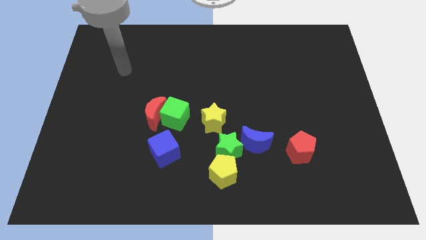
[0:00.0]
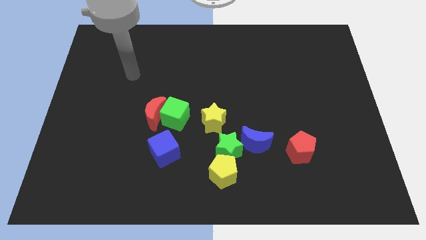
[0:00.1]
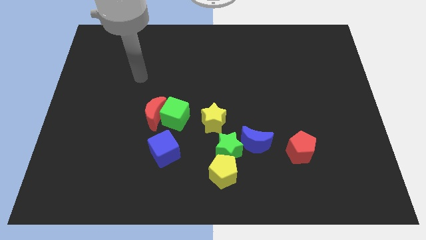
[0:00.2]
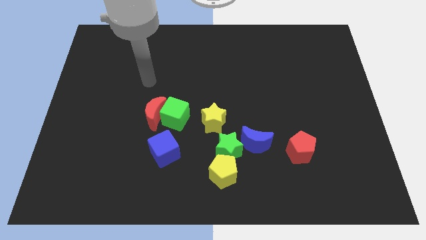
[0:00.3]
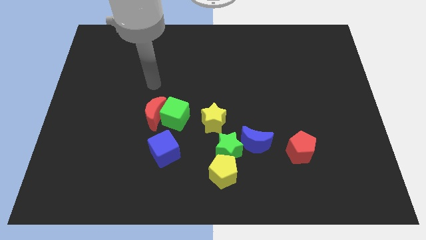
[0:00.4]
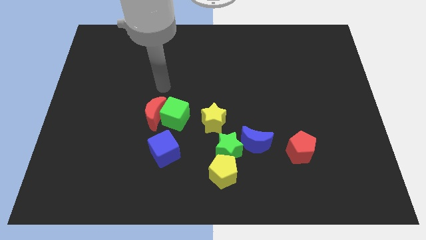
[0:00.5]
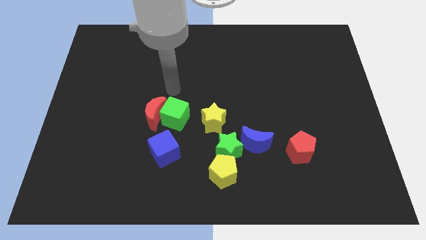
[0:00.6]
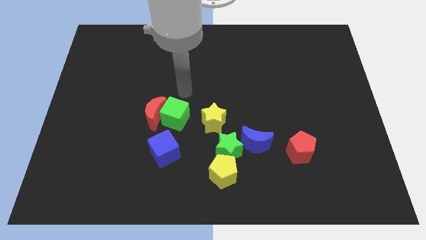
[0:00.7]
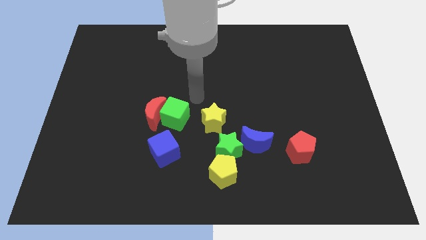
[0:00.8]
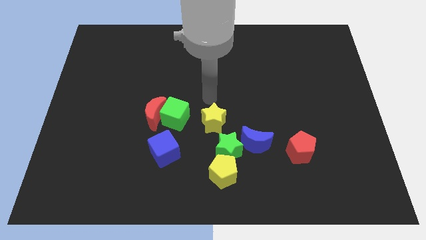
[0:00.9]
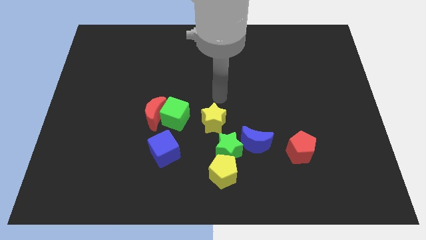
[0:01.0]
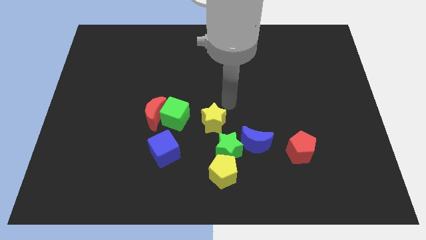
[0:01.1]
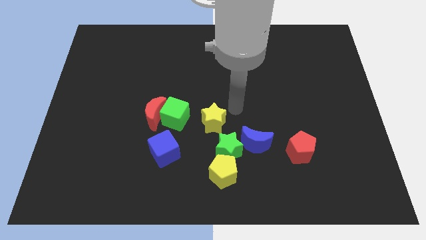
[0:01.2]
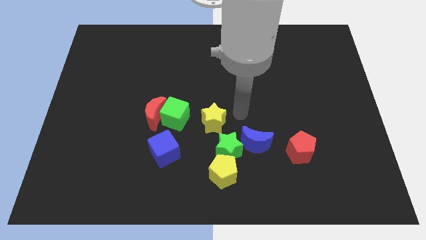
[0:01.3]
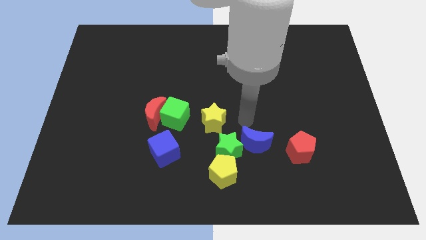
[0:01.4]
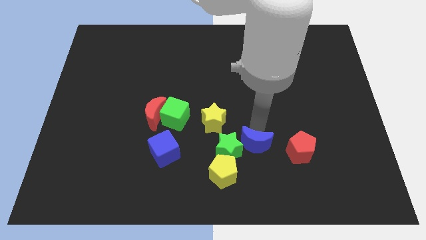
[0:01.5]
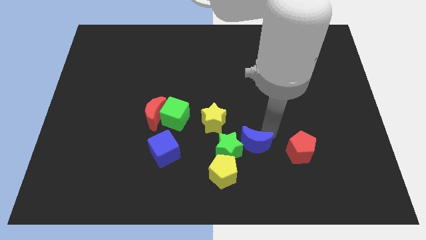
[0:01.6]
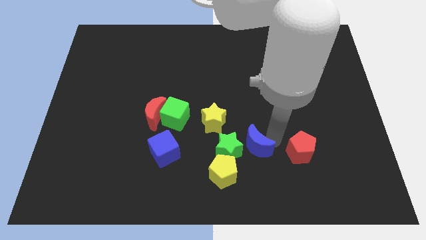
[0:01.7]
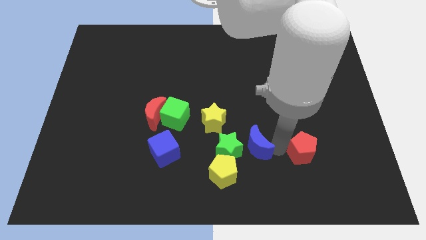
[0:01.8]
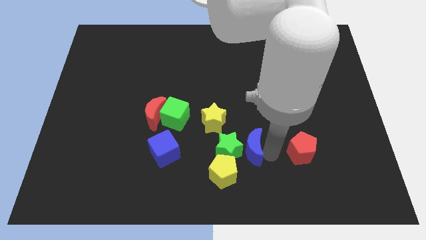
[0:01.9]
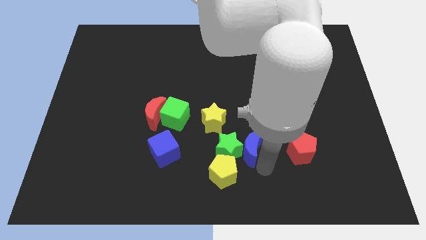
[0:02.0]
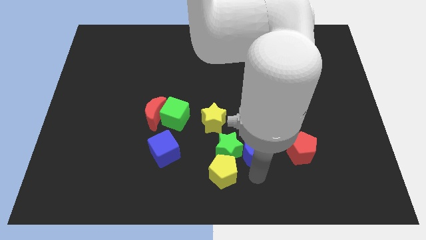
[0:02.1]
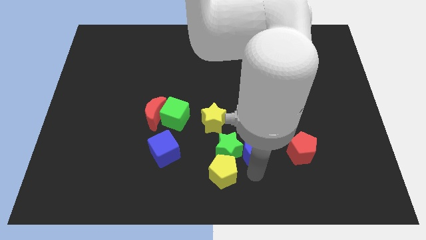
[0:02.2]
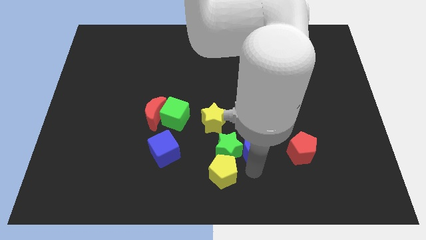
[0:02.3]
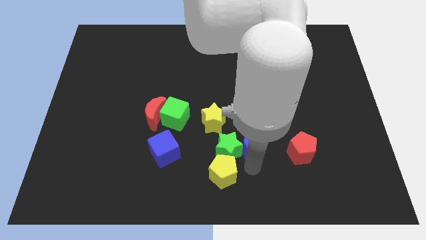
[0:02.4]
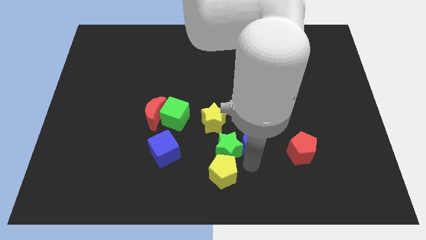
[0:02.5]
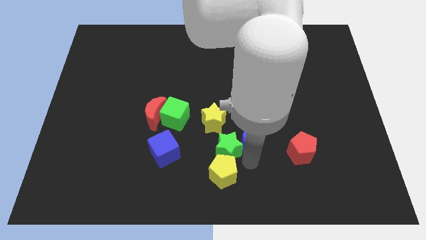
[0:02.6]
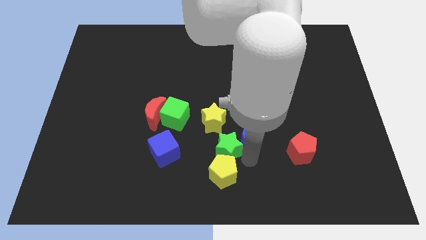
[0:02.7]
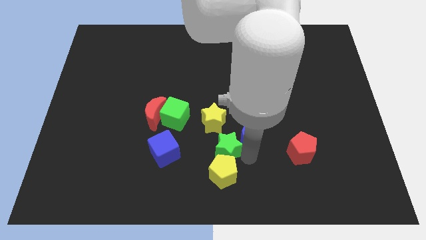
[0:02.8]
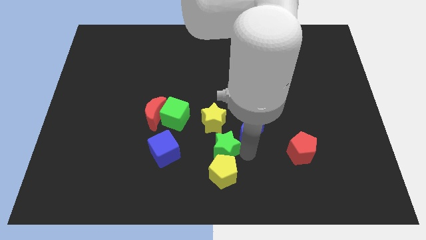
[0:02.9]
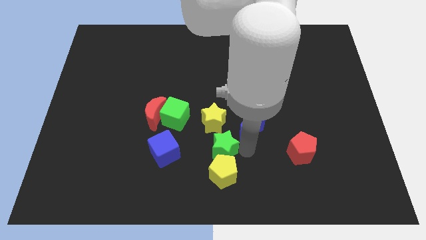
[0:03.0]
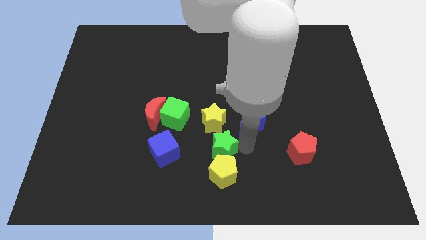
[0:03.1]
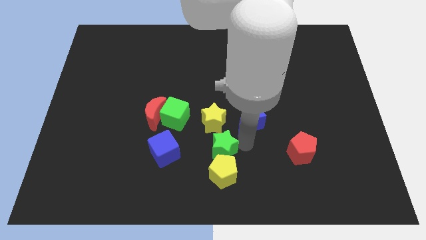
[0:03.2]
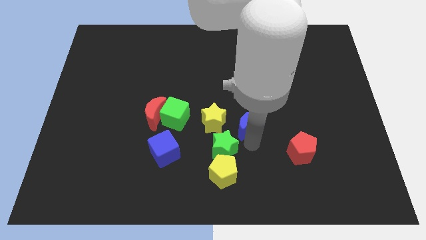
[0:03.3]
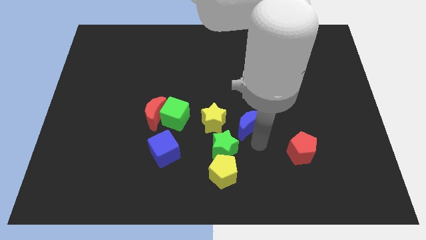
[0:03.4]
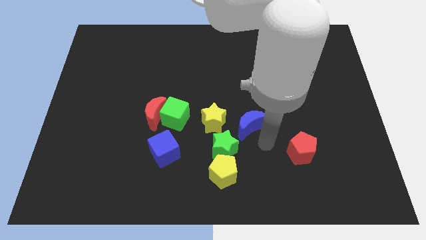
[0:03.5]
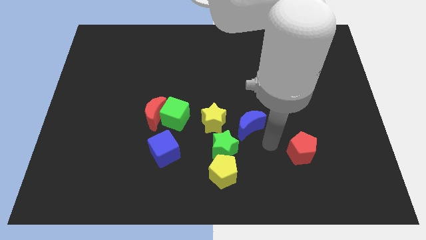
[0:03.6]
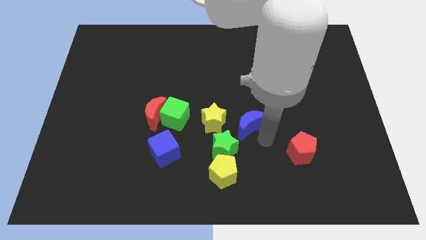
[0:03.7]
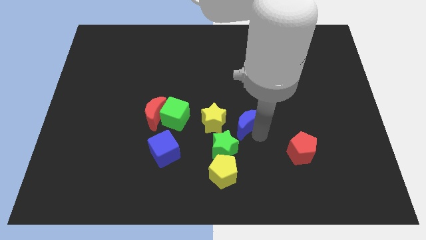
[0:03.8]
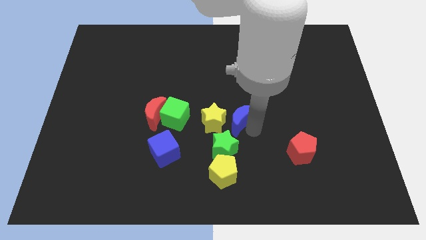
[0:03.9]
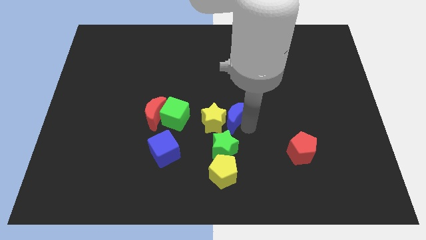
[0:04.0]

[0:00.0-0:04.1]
move the blue moon up and left diagonally slightly

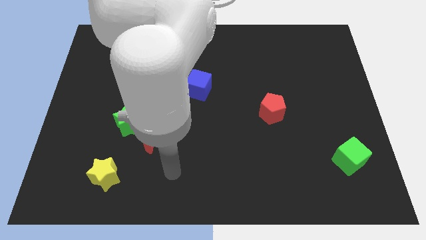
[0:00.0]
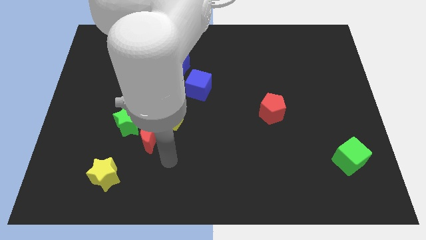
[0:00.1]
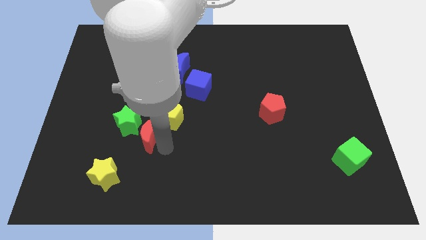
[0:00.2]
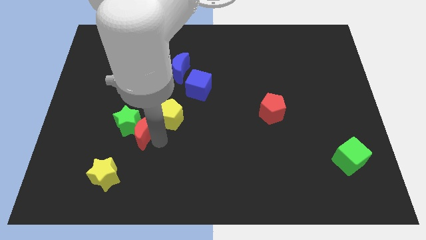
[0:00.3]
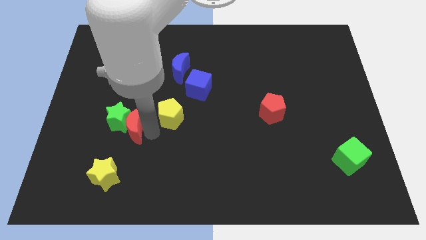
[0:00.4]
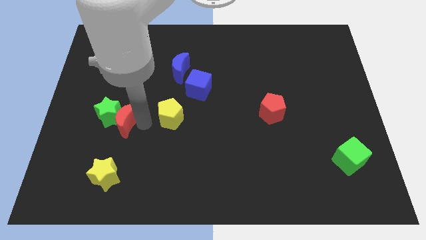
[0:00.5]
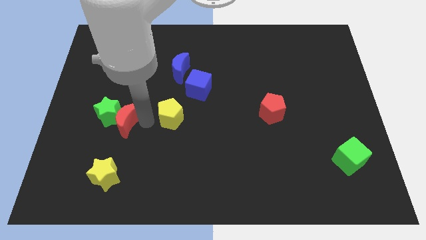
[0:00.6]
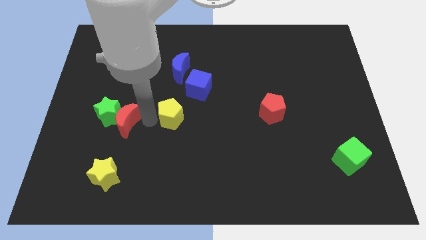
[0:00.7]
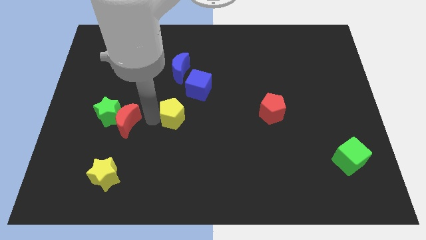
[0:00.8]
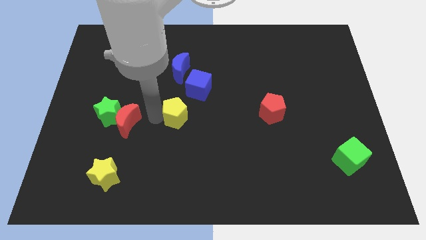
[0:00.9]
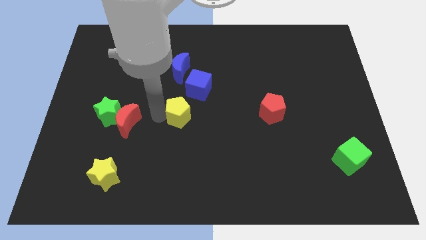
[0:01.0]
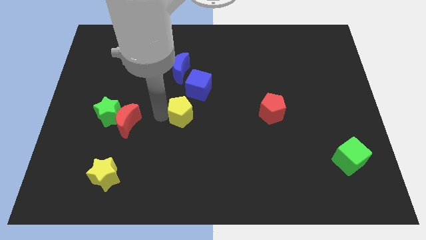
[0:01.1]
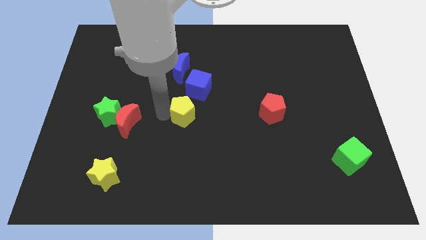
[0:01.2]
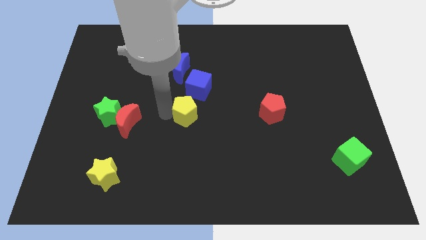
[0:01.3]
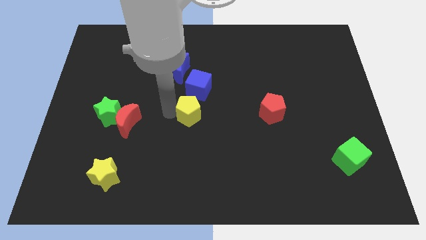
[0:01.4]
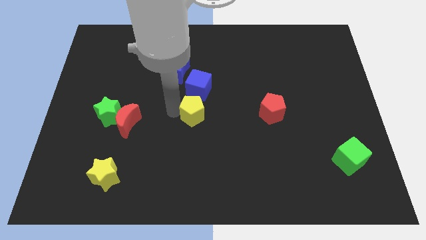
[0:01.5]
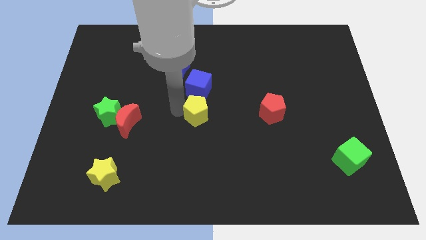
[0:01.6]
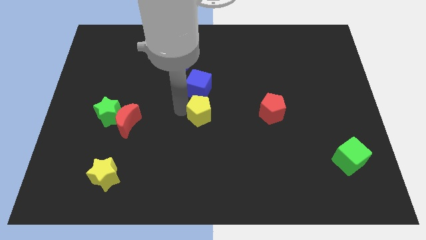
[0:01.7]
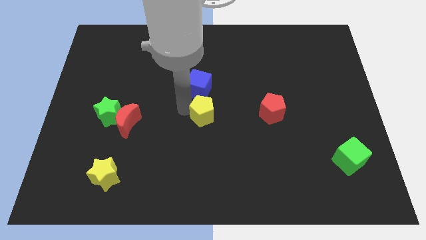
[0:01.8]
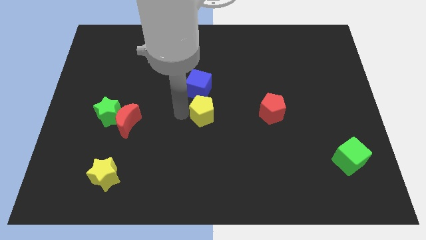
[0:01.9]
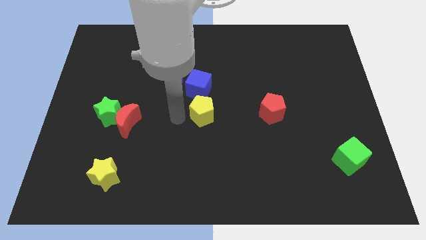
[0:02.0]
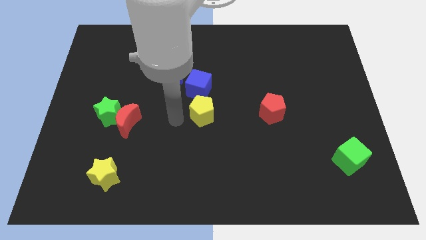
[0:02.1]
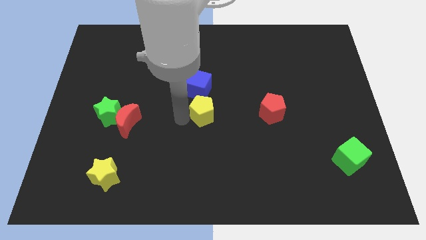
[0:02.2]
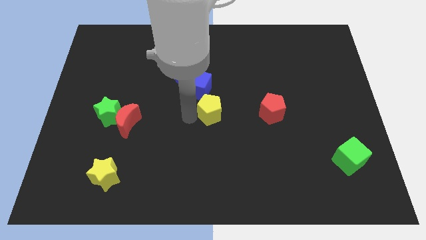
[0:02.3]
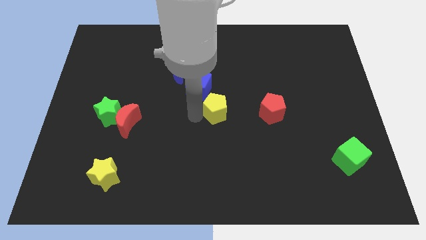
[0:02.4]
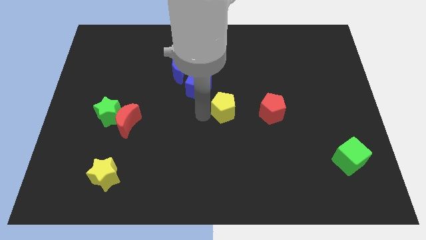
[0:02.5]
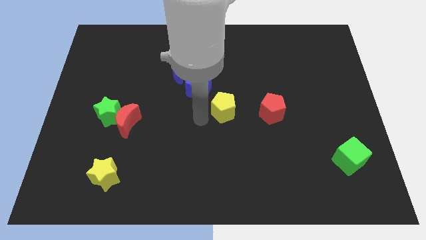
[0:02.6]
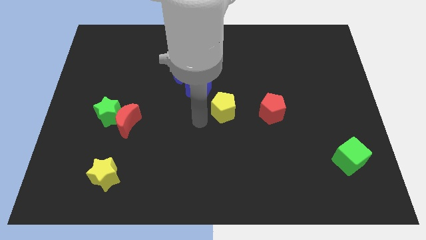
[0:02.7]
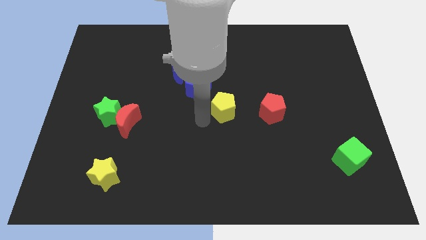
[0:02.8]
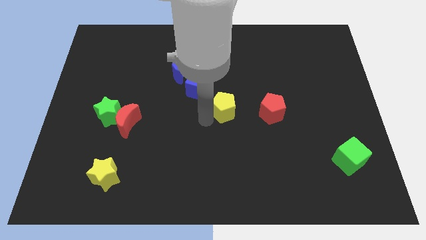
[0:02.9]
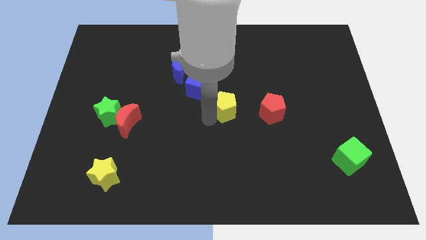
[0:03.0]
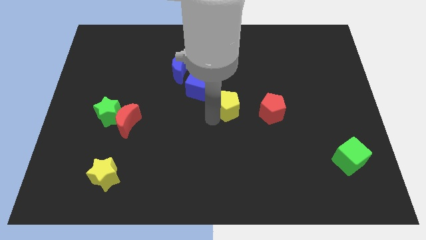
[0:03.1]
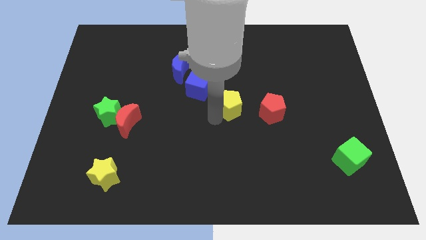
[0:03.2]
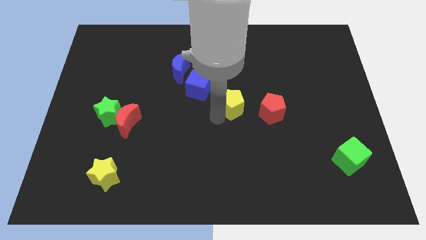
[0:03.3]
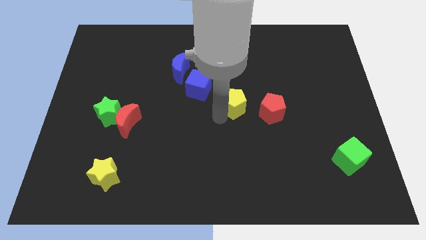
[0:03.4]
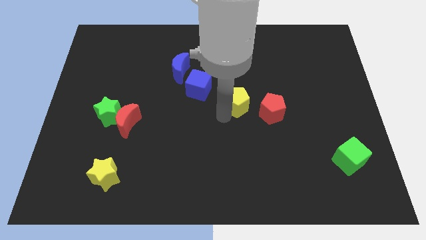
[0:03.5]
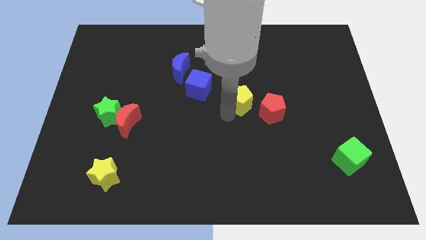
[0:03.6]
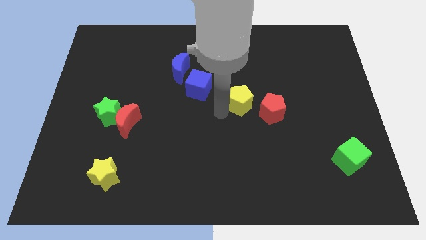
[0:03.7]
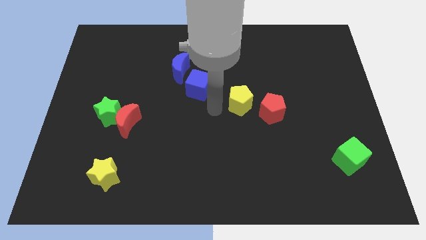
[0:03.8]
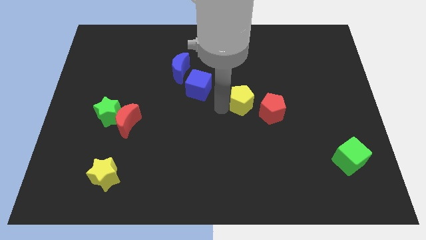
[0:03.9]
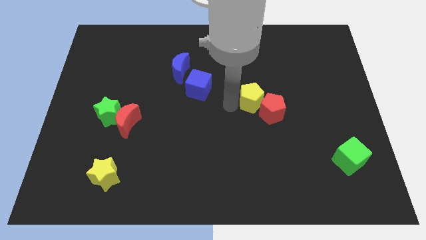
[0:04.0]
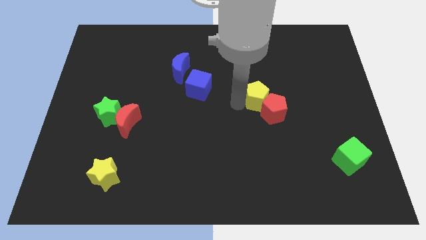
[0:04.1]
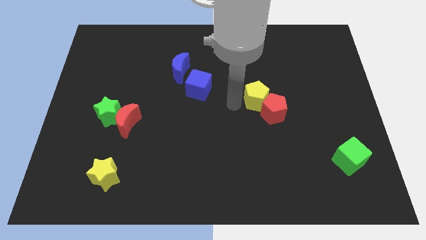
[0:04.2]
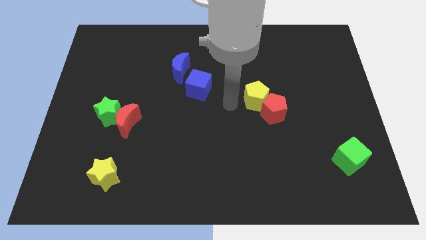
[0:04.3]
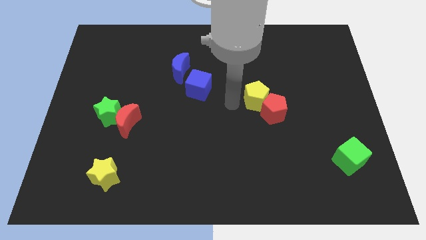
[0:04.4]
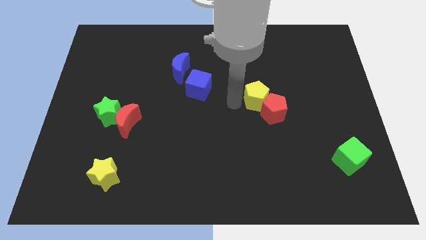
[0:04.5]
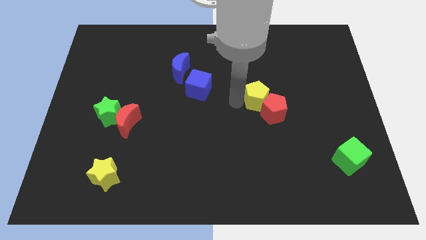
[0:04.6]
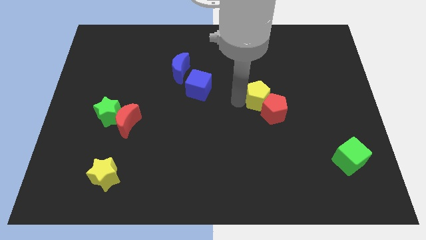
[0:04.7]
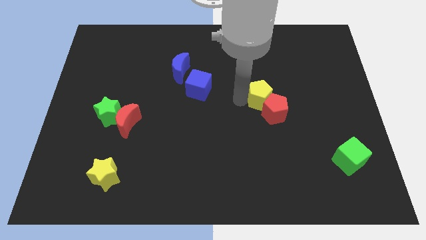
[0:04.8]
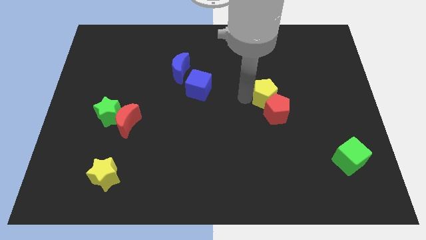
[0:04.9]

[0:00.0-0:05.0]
push the yellow pentagon to the right
